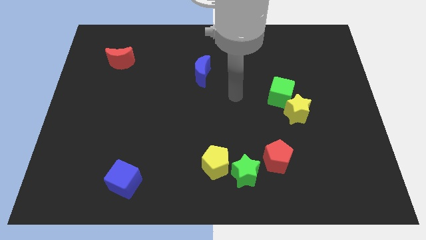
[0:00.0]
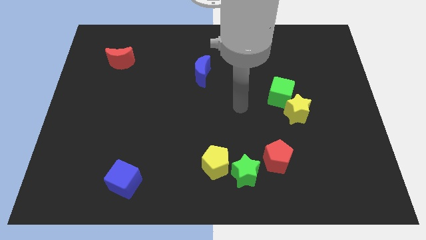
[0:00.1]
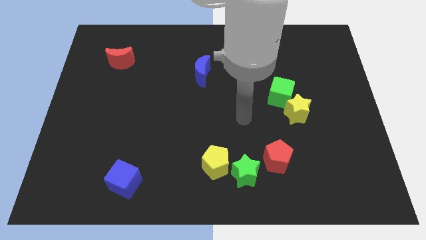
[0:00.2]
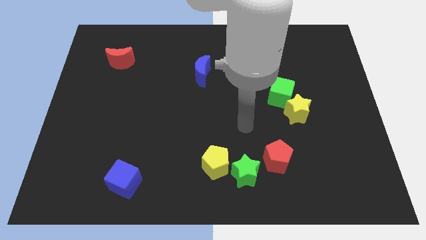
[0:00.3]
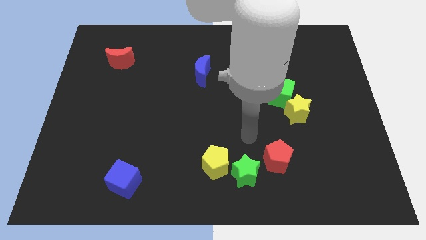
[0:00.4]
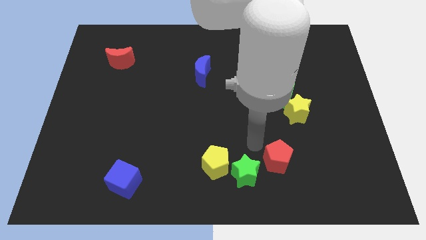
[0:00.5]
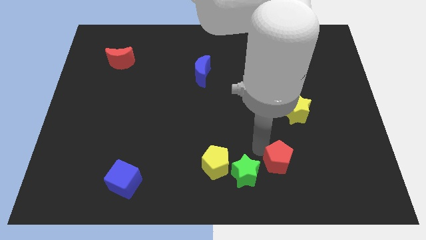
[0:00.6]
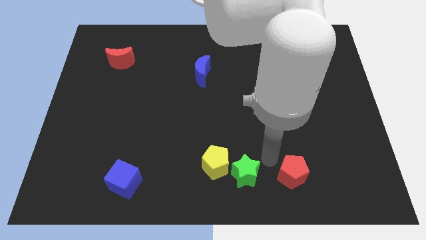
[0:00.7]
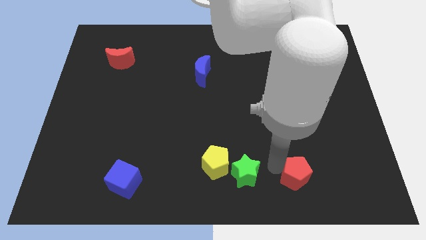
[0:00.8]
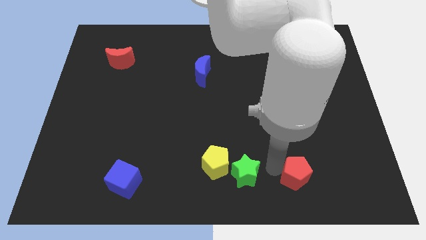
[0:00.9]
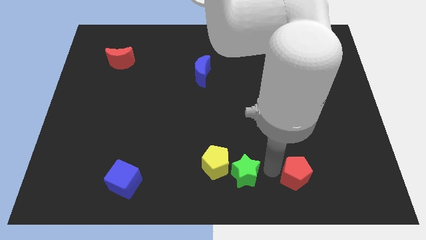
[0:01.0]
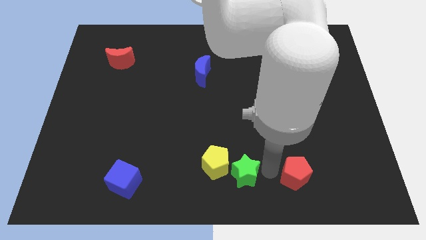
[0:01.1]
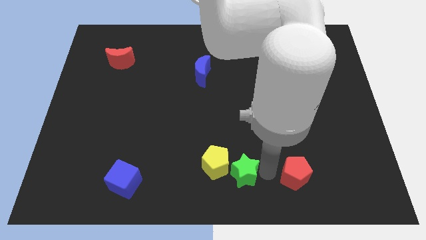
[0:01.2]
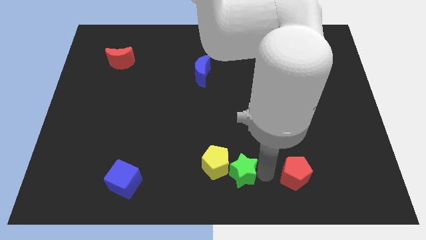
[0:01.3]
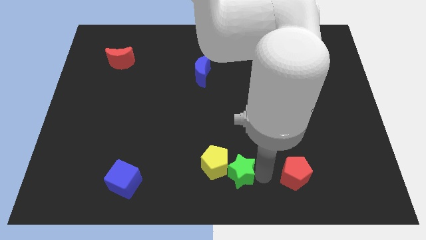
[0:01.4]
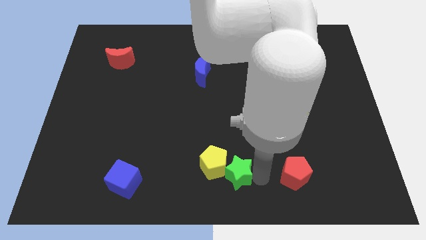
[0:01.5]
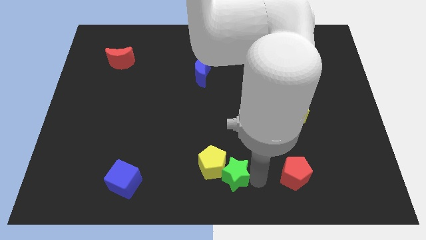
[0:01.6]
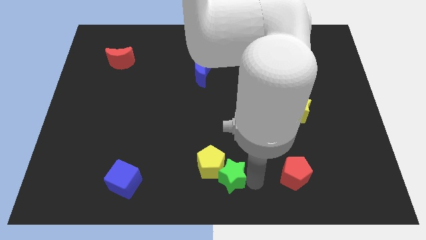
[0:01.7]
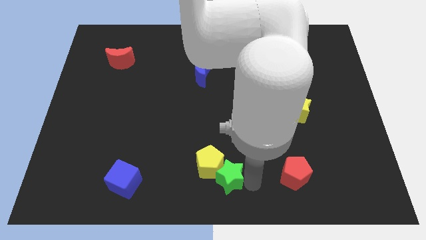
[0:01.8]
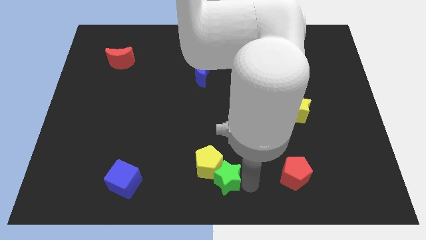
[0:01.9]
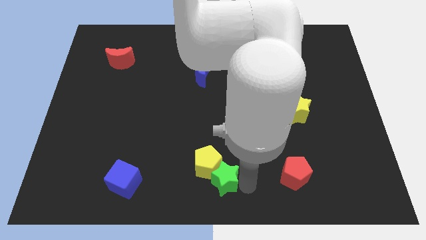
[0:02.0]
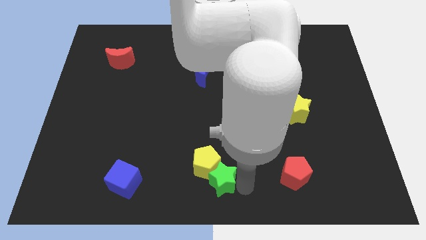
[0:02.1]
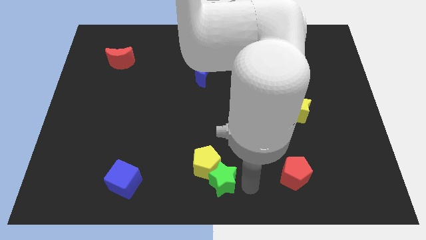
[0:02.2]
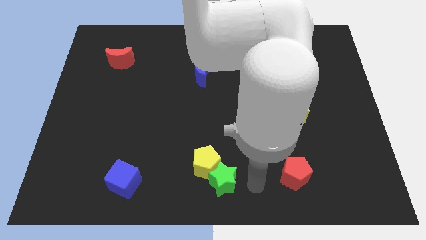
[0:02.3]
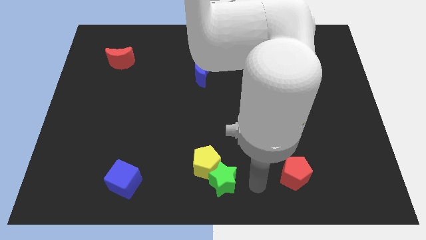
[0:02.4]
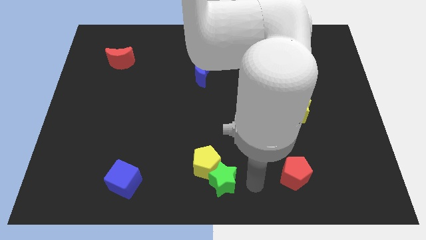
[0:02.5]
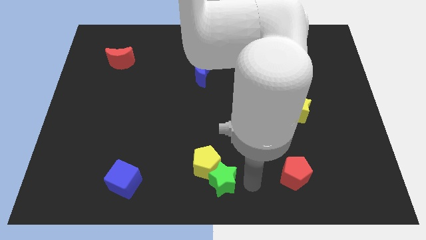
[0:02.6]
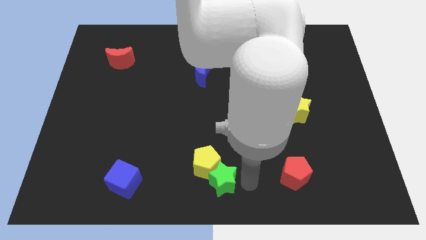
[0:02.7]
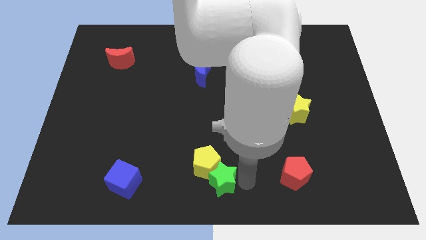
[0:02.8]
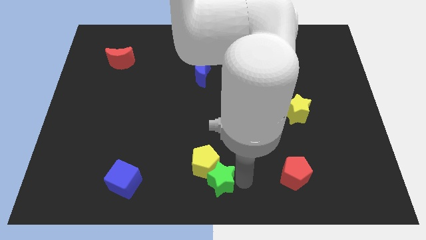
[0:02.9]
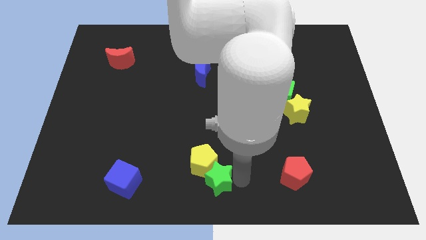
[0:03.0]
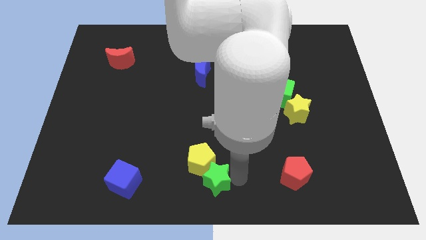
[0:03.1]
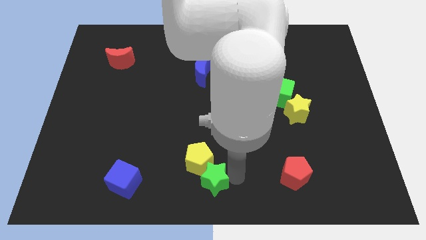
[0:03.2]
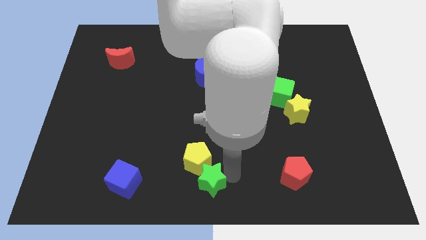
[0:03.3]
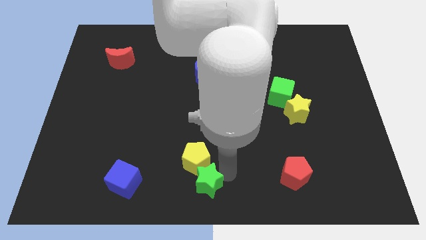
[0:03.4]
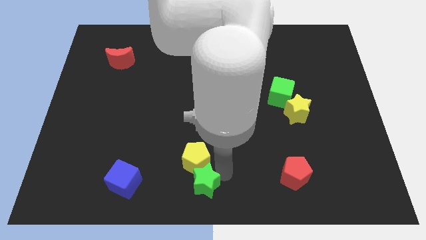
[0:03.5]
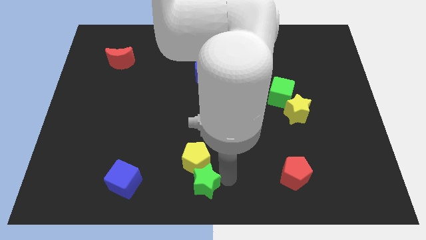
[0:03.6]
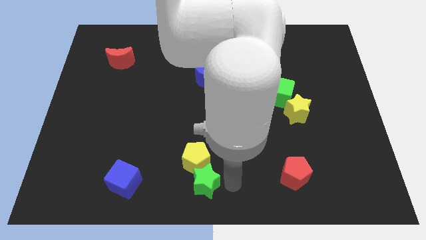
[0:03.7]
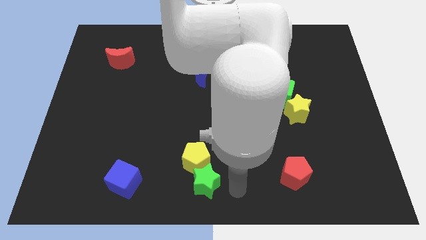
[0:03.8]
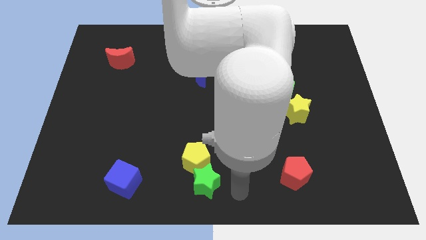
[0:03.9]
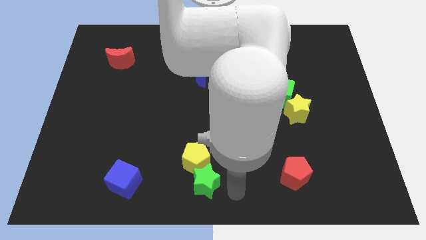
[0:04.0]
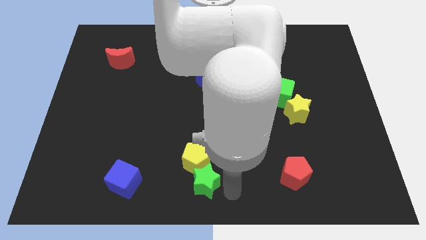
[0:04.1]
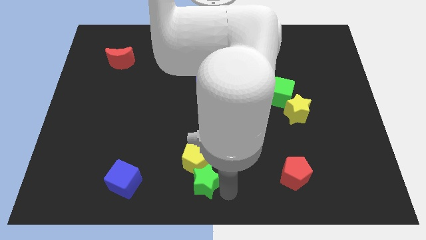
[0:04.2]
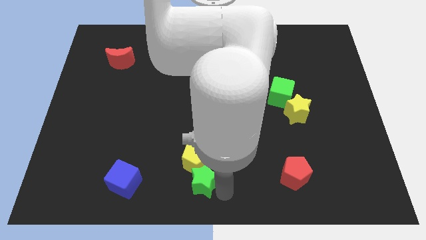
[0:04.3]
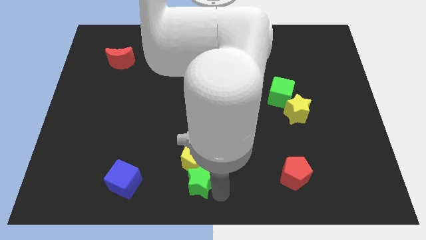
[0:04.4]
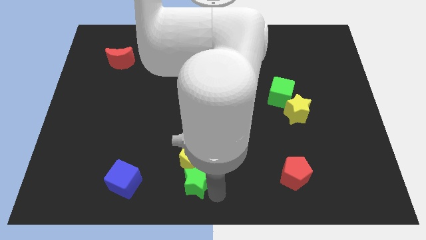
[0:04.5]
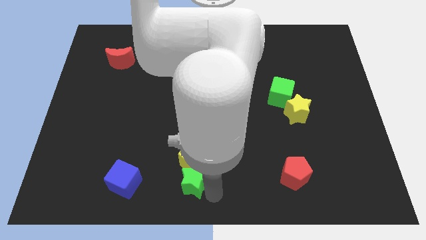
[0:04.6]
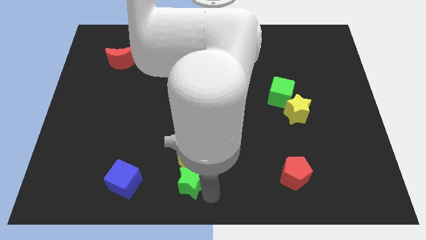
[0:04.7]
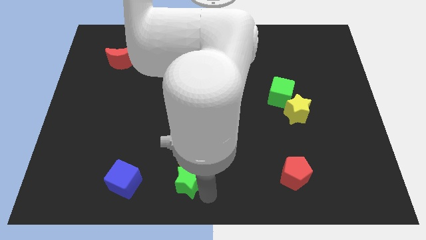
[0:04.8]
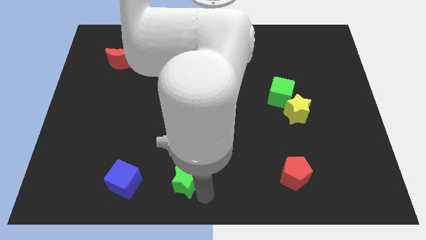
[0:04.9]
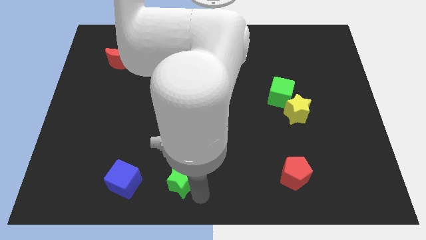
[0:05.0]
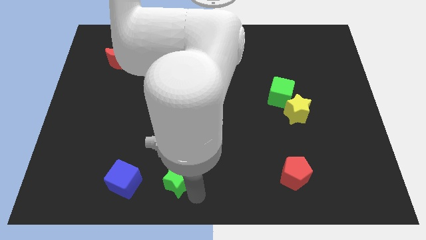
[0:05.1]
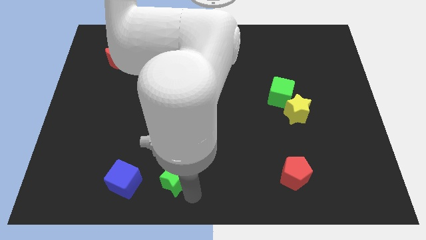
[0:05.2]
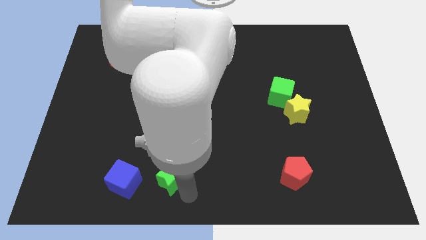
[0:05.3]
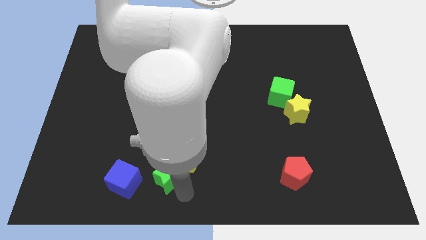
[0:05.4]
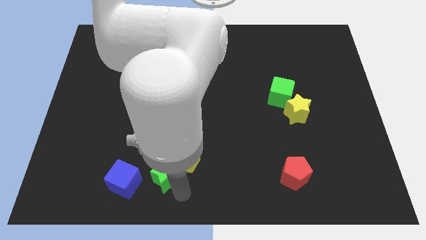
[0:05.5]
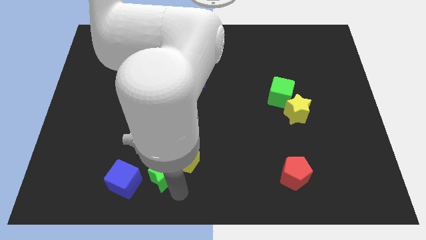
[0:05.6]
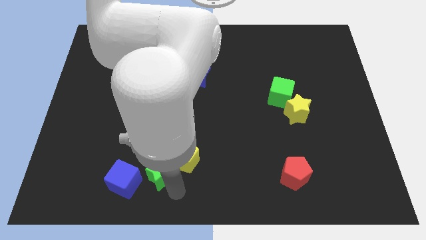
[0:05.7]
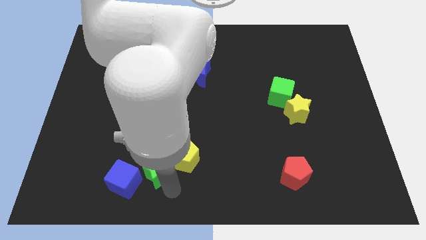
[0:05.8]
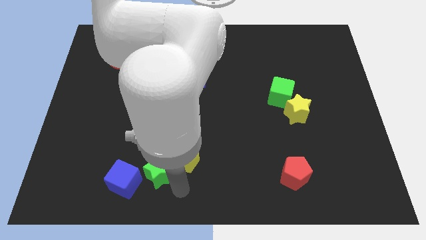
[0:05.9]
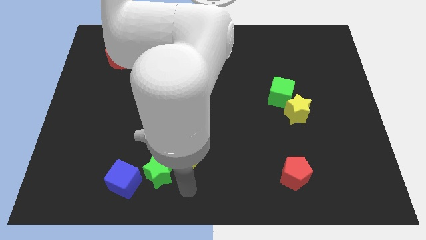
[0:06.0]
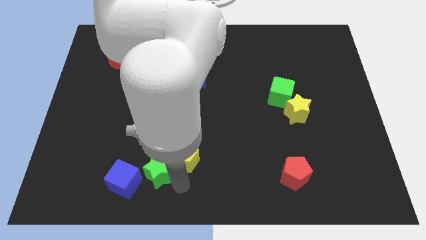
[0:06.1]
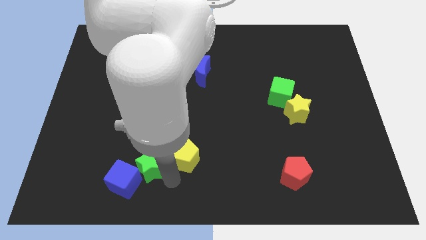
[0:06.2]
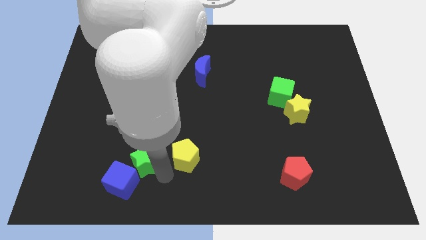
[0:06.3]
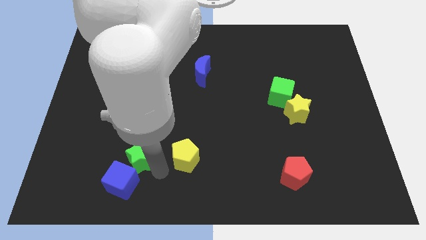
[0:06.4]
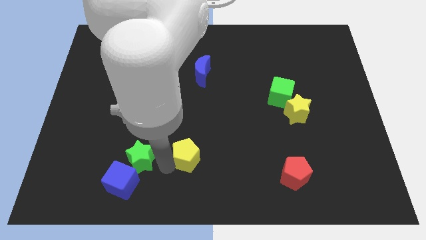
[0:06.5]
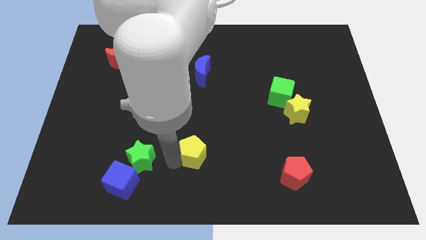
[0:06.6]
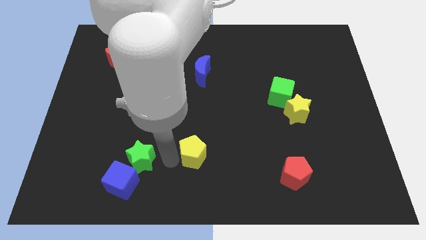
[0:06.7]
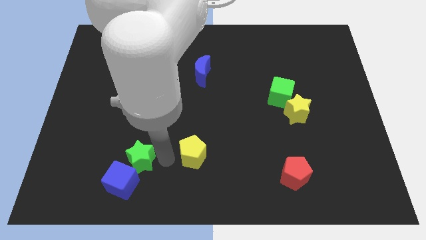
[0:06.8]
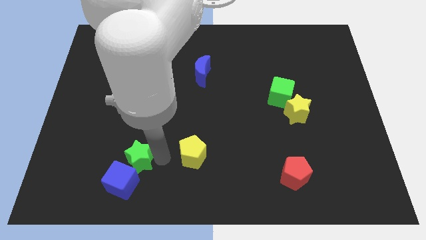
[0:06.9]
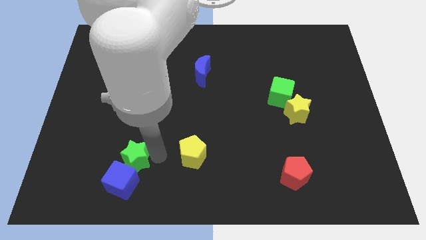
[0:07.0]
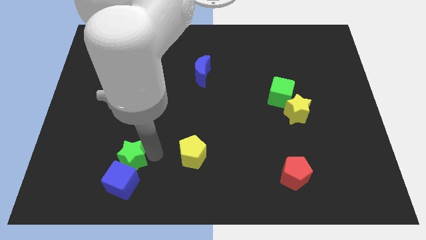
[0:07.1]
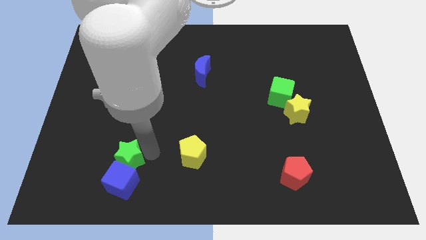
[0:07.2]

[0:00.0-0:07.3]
move the green star diagonally up and to the left of the blue cube
